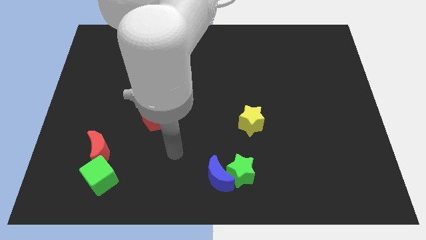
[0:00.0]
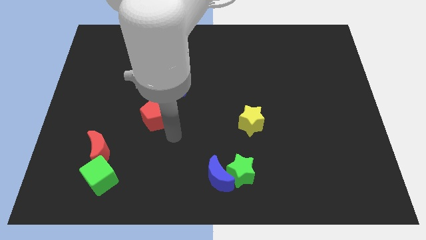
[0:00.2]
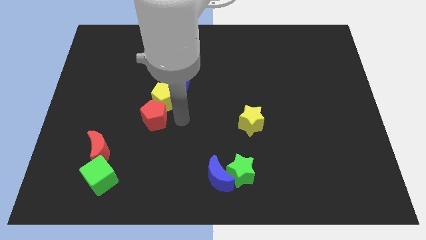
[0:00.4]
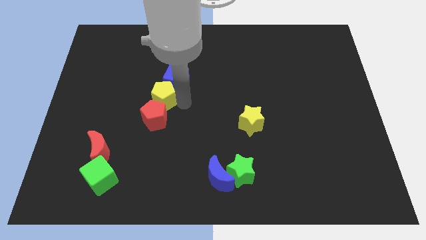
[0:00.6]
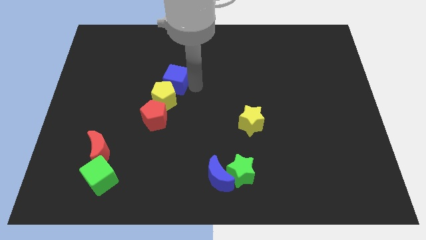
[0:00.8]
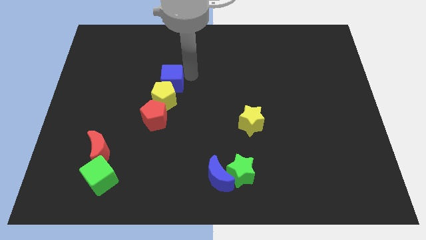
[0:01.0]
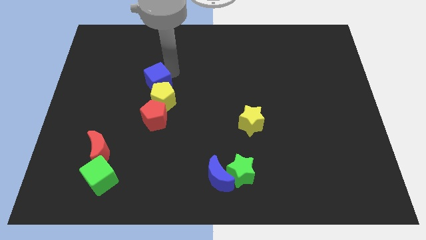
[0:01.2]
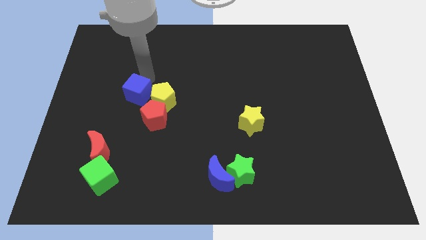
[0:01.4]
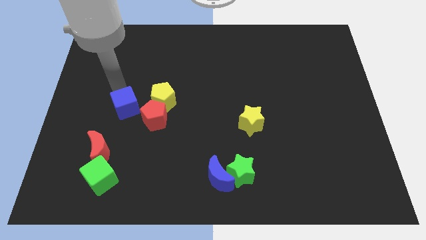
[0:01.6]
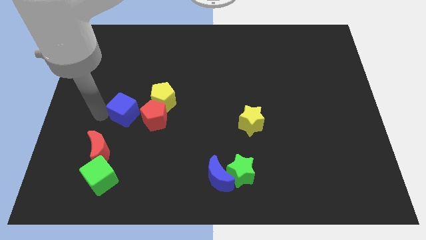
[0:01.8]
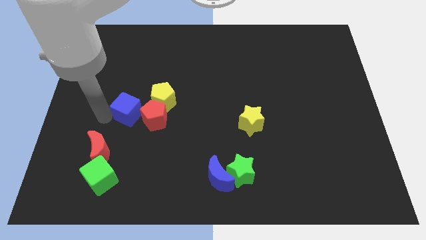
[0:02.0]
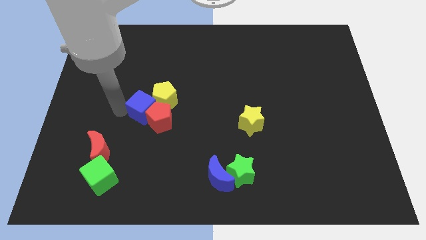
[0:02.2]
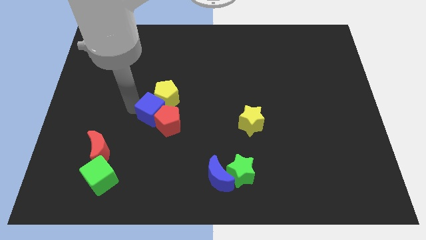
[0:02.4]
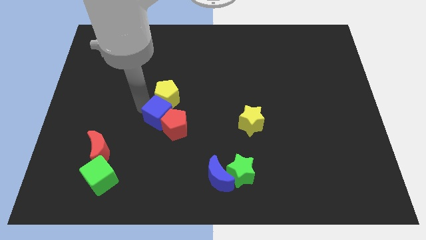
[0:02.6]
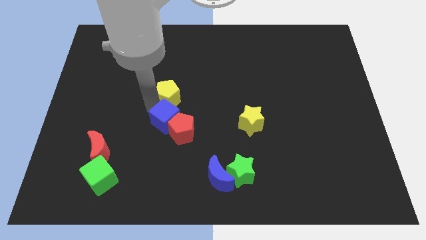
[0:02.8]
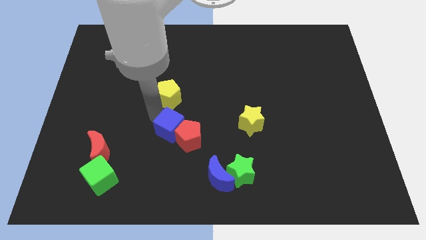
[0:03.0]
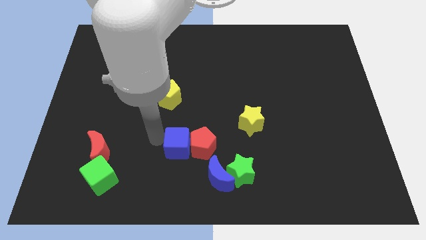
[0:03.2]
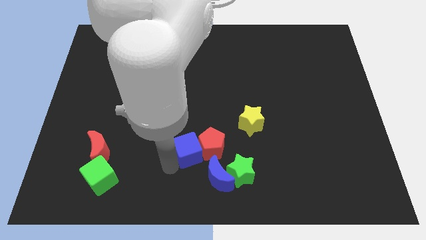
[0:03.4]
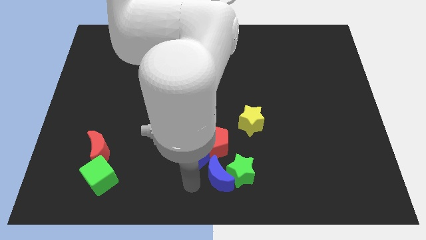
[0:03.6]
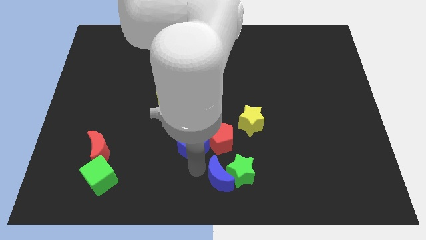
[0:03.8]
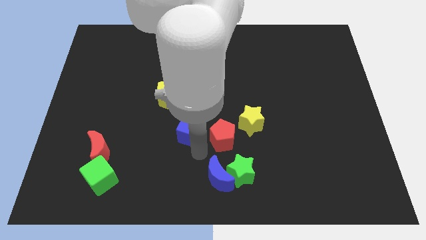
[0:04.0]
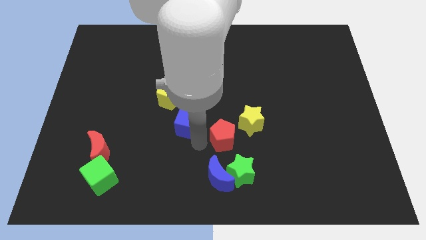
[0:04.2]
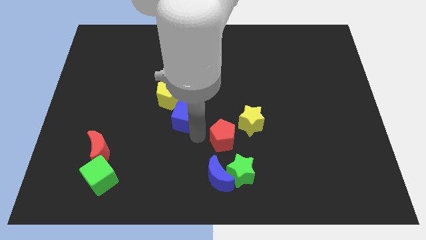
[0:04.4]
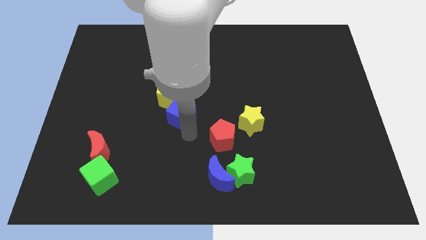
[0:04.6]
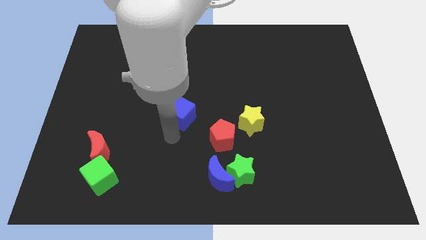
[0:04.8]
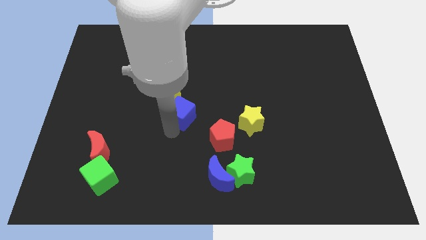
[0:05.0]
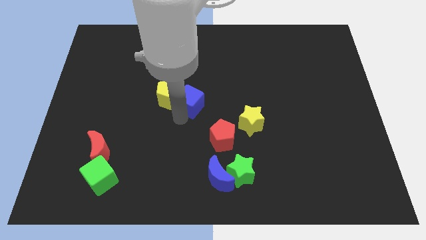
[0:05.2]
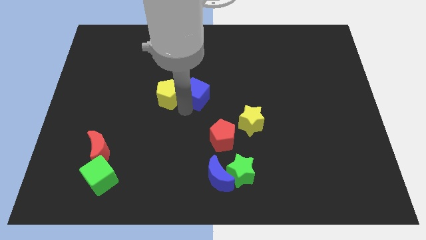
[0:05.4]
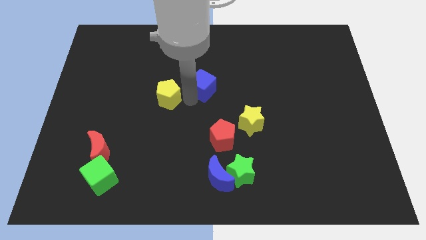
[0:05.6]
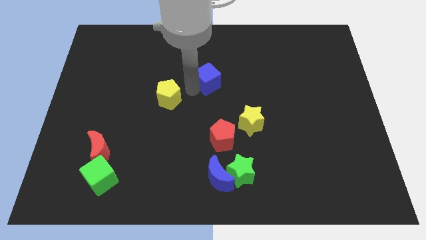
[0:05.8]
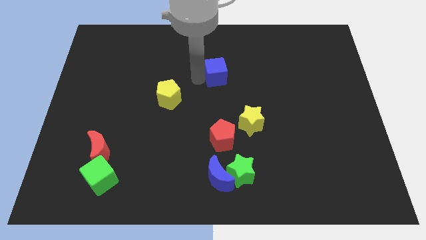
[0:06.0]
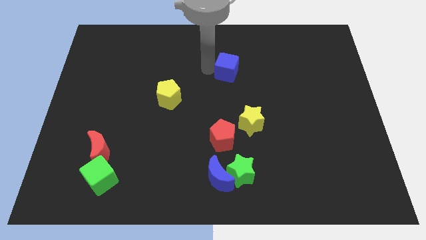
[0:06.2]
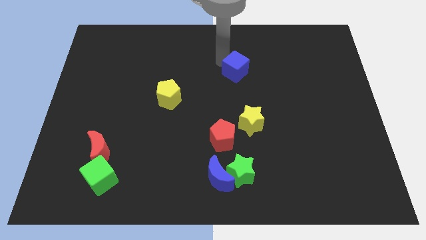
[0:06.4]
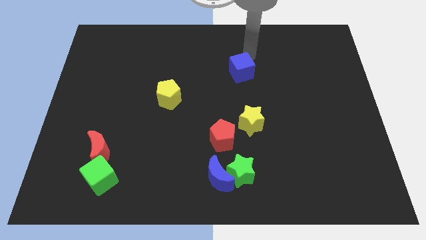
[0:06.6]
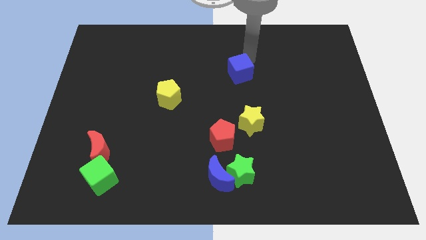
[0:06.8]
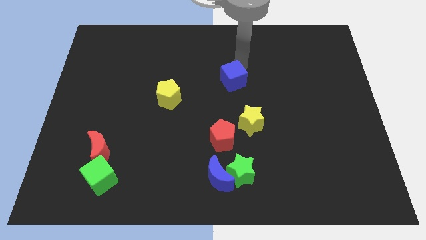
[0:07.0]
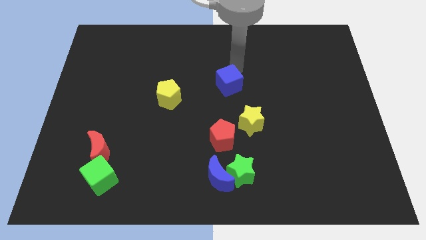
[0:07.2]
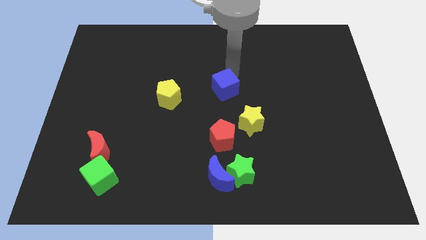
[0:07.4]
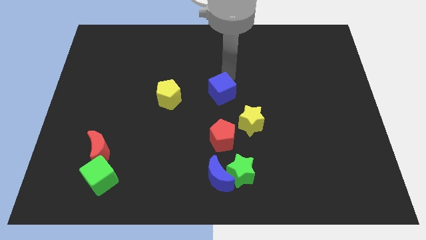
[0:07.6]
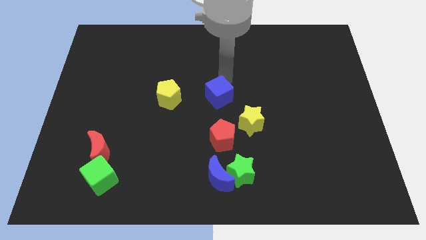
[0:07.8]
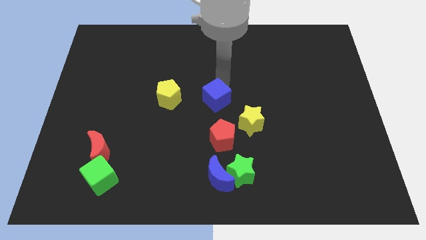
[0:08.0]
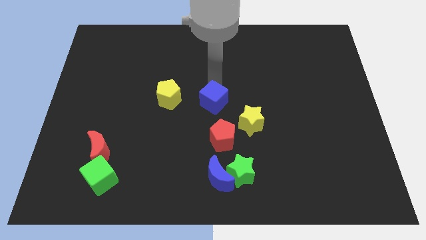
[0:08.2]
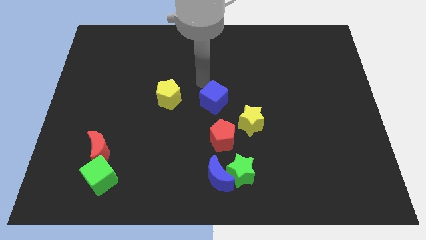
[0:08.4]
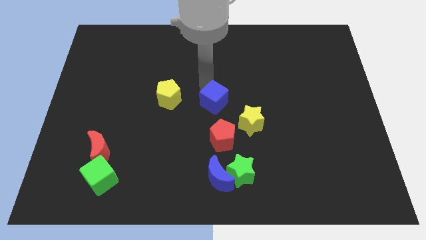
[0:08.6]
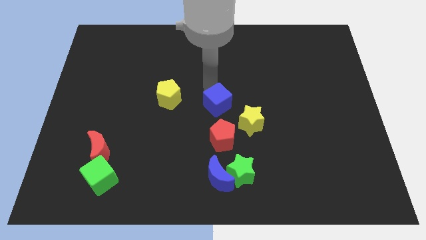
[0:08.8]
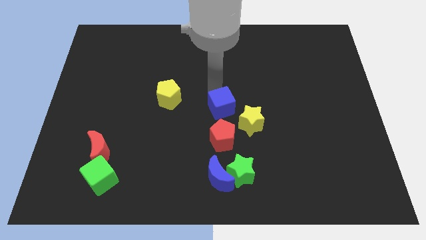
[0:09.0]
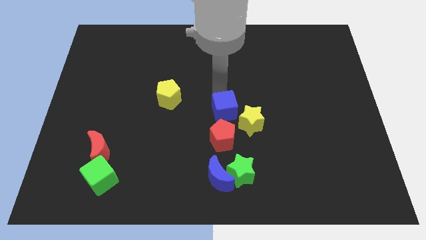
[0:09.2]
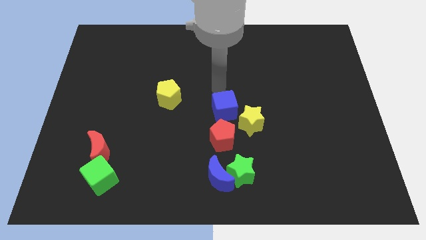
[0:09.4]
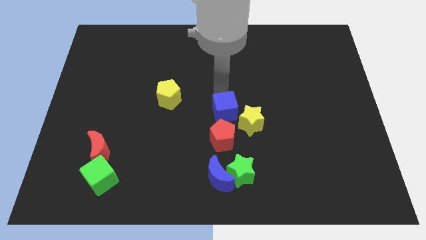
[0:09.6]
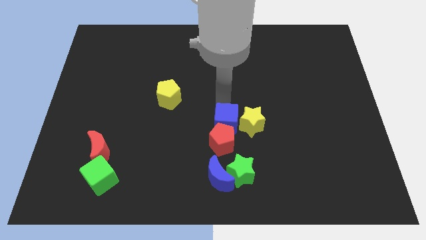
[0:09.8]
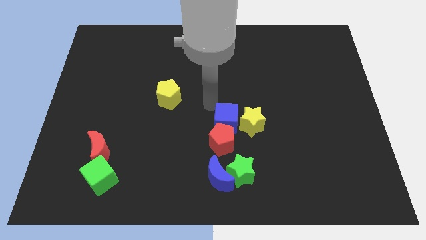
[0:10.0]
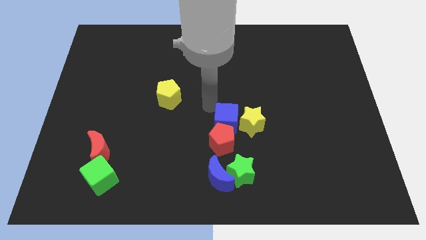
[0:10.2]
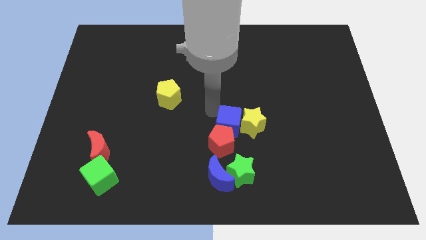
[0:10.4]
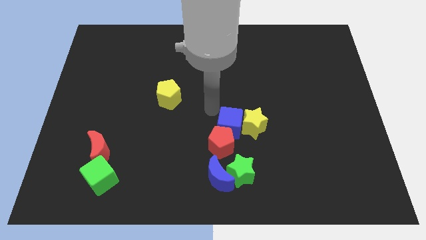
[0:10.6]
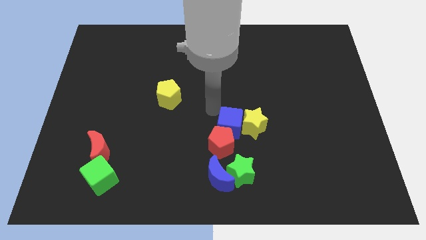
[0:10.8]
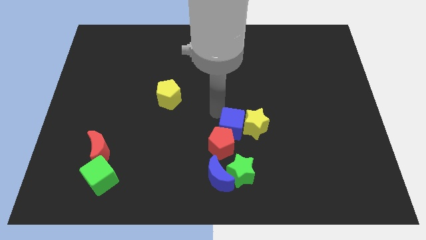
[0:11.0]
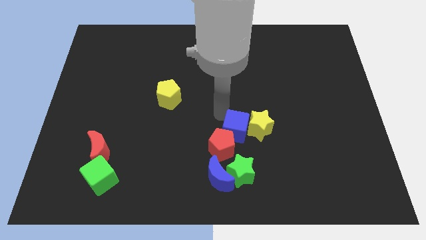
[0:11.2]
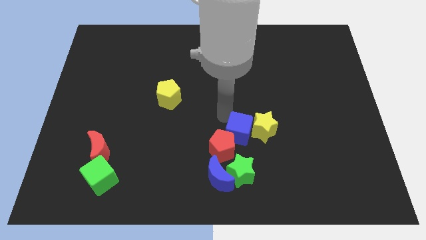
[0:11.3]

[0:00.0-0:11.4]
slide the blue cube down and right diagonally

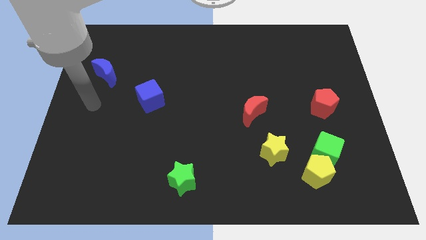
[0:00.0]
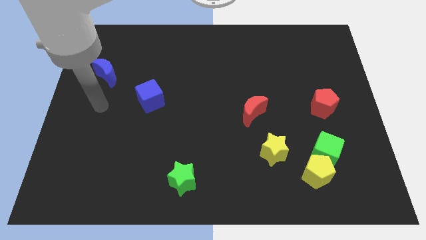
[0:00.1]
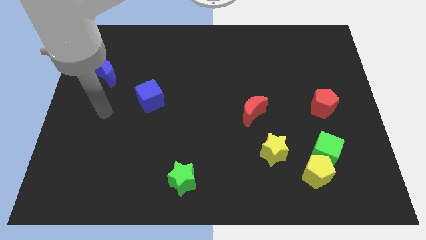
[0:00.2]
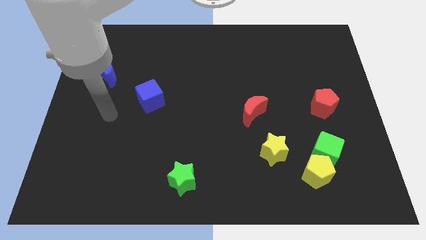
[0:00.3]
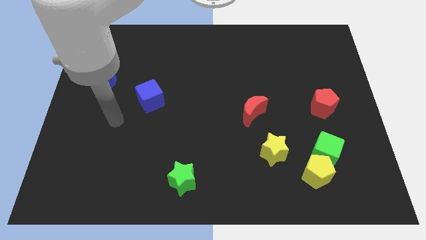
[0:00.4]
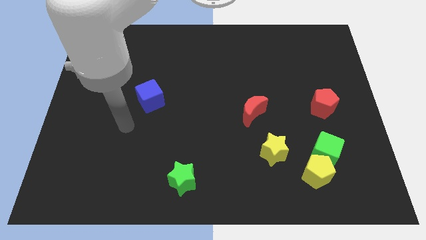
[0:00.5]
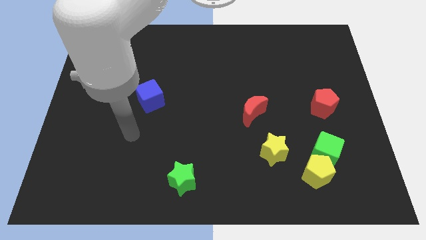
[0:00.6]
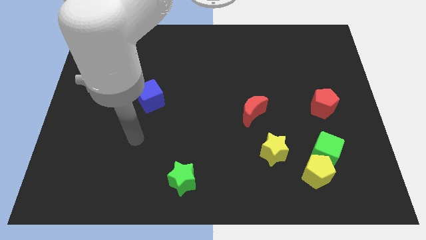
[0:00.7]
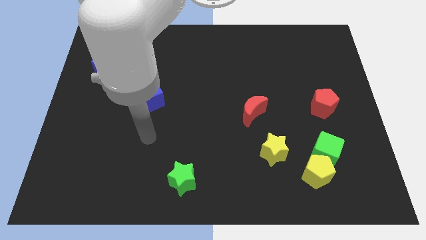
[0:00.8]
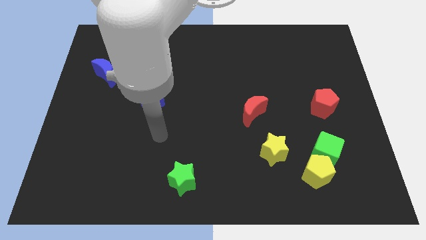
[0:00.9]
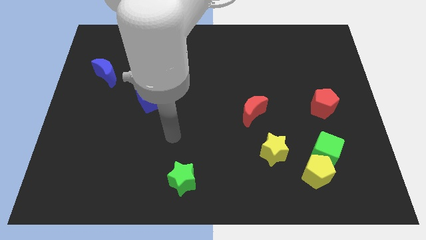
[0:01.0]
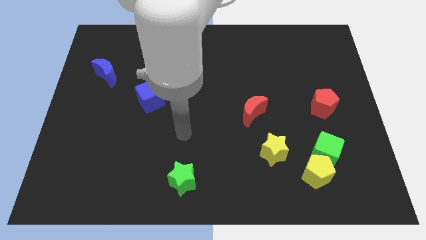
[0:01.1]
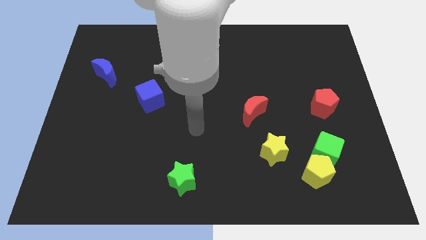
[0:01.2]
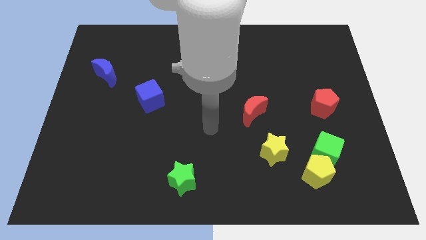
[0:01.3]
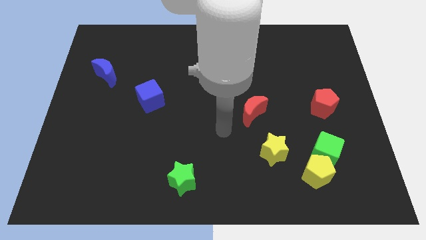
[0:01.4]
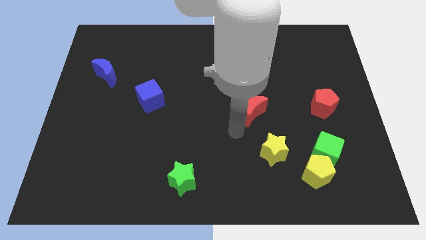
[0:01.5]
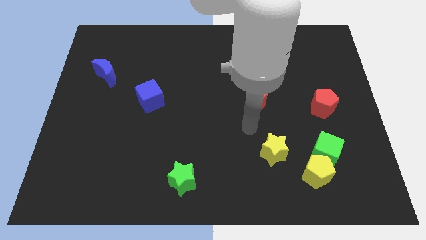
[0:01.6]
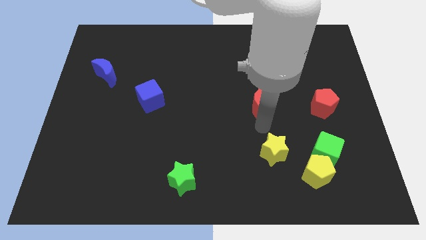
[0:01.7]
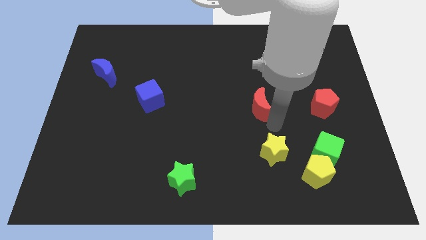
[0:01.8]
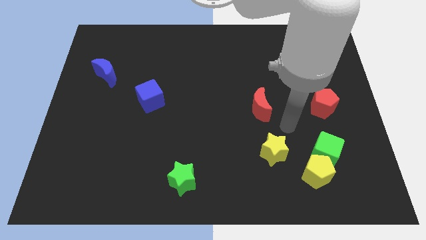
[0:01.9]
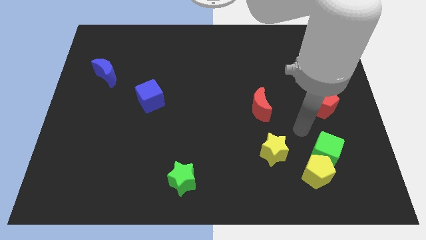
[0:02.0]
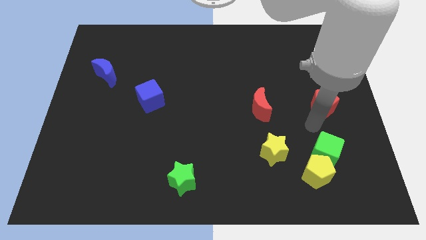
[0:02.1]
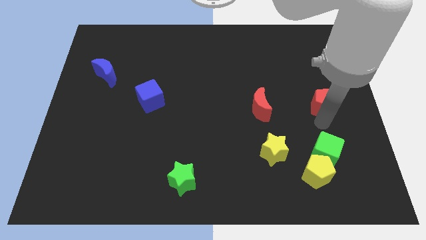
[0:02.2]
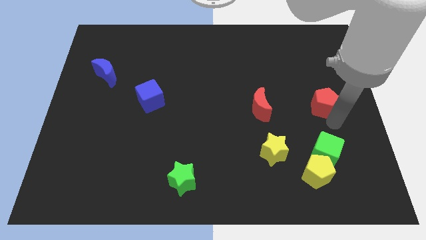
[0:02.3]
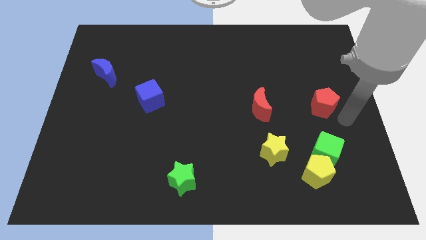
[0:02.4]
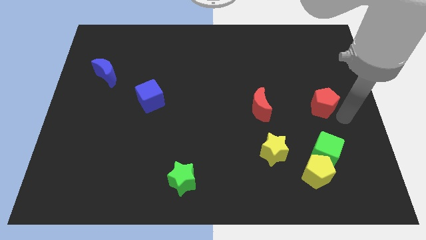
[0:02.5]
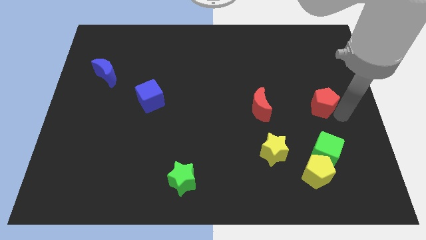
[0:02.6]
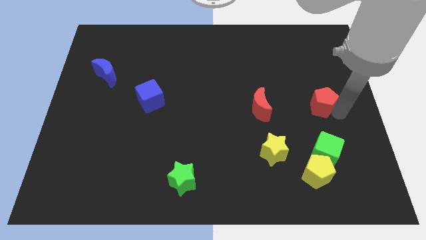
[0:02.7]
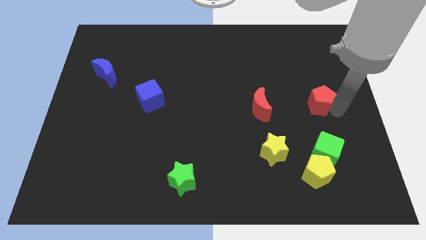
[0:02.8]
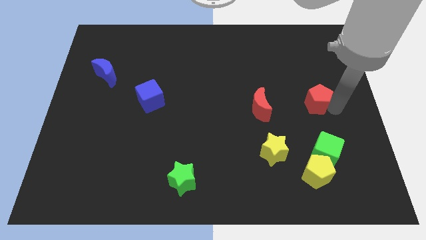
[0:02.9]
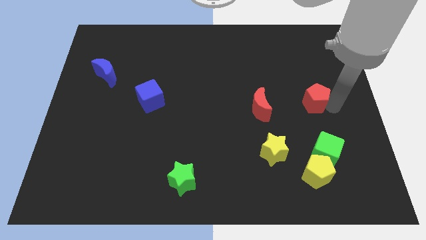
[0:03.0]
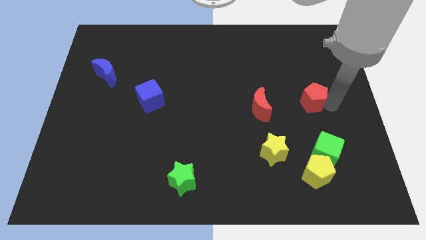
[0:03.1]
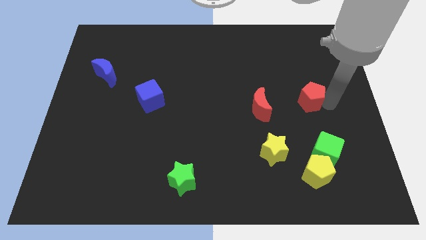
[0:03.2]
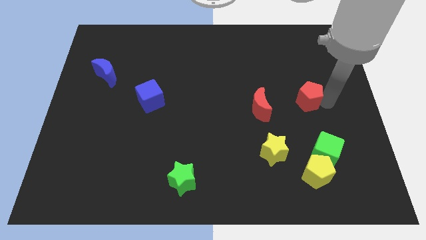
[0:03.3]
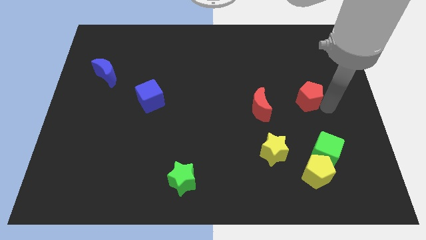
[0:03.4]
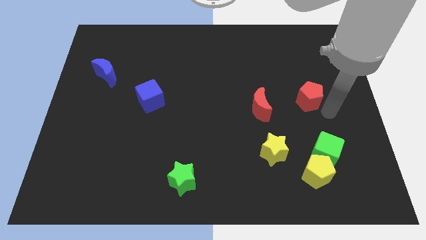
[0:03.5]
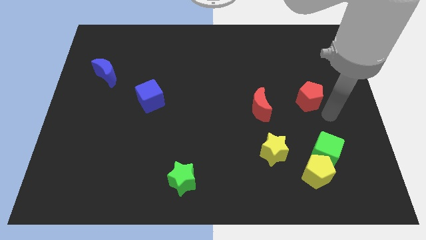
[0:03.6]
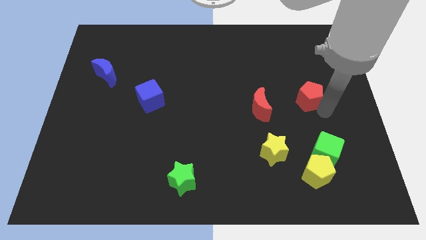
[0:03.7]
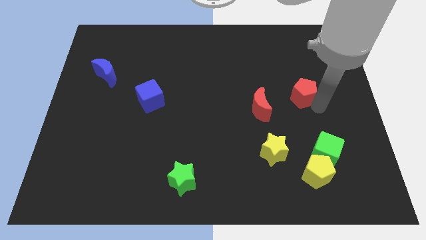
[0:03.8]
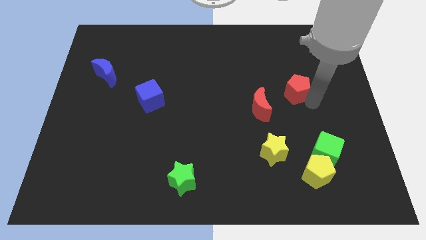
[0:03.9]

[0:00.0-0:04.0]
push the red pentagon slightly diagonally up and to the left
